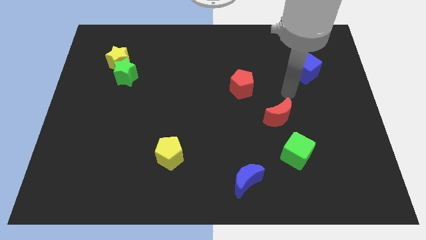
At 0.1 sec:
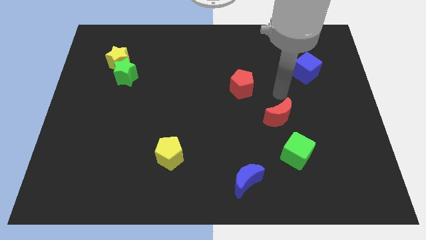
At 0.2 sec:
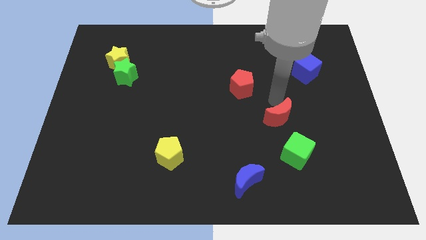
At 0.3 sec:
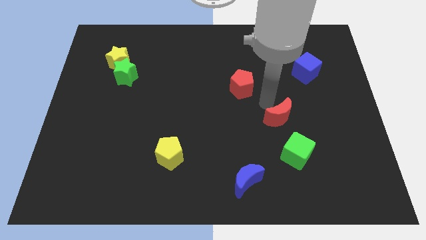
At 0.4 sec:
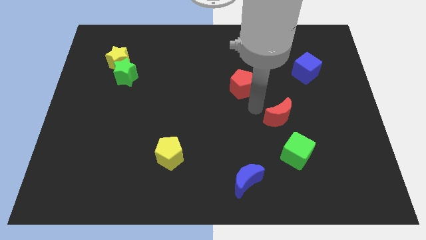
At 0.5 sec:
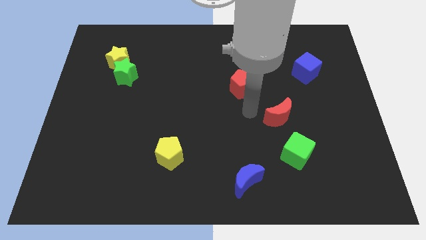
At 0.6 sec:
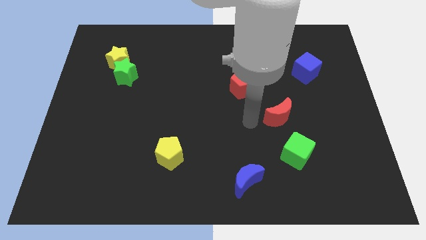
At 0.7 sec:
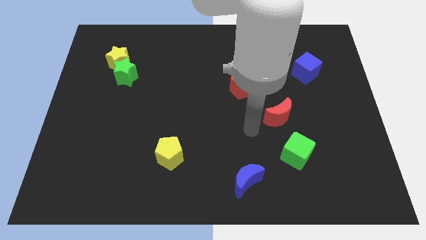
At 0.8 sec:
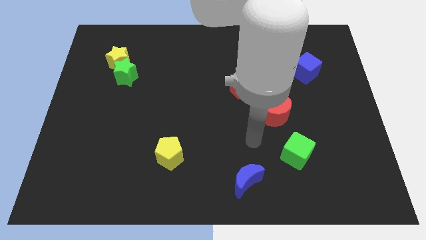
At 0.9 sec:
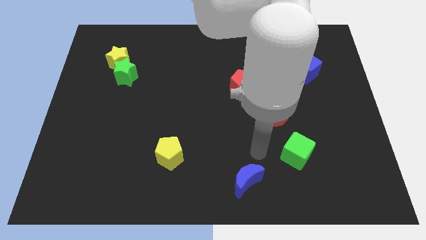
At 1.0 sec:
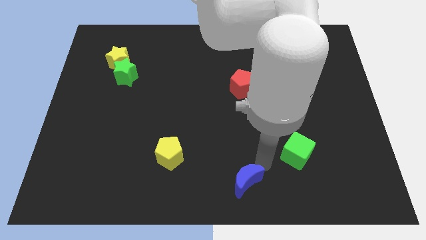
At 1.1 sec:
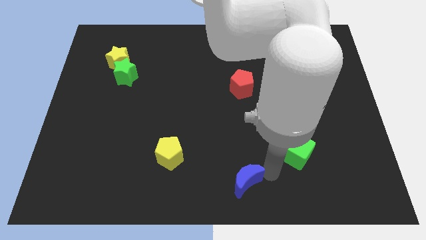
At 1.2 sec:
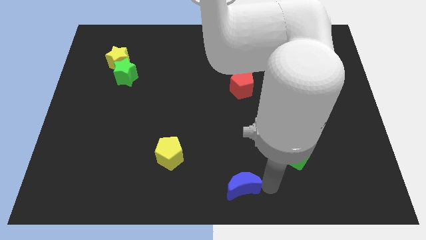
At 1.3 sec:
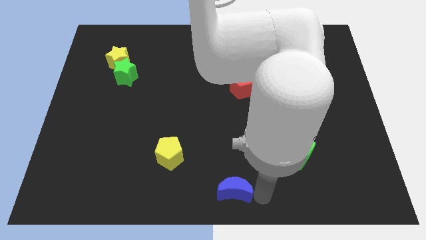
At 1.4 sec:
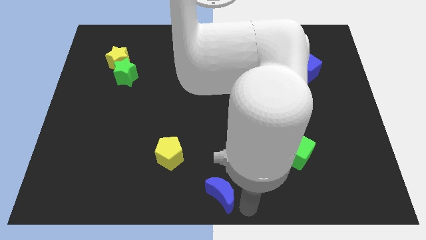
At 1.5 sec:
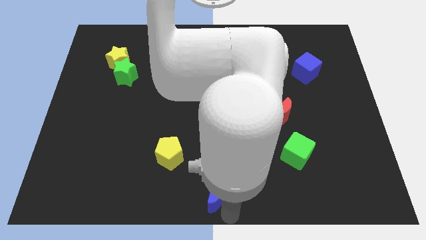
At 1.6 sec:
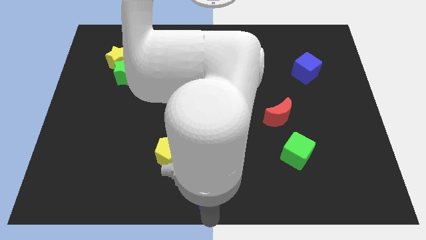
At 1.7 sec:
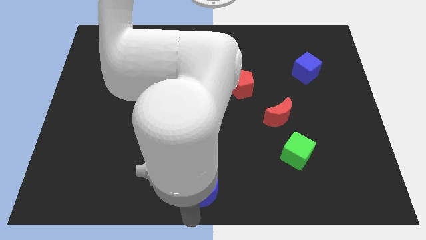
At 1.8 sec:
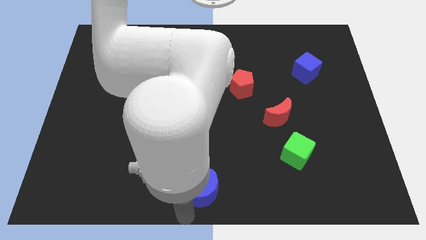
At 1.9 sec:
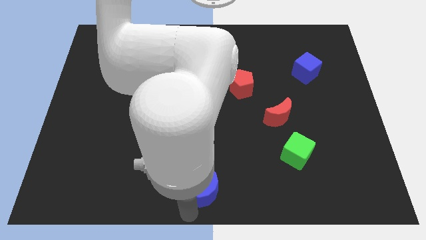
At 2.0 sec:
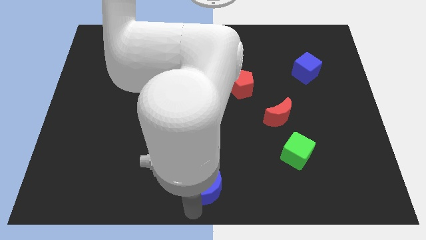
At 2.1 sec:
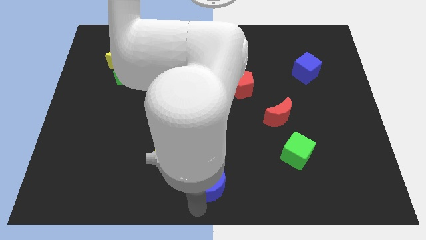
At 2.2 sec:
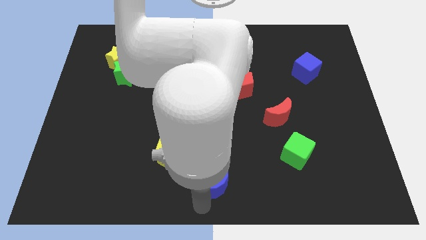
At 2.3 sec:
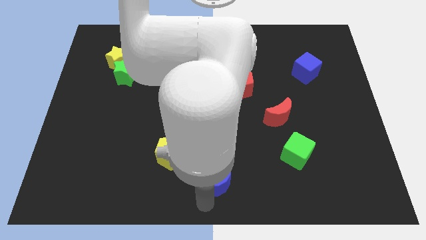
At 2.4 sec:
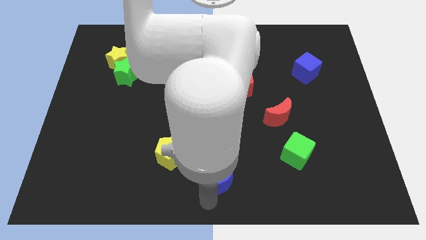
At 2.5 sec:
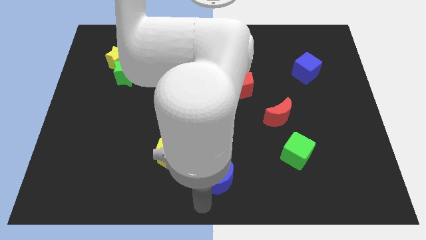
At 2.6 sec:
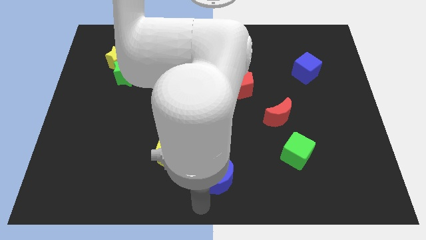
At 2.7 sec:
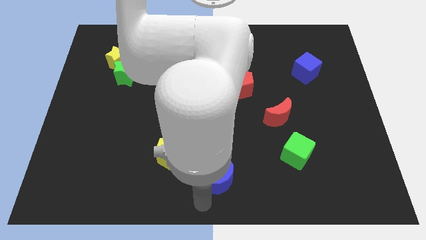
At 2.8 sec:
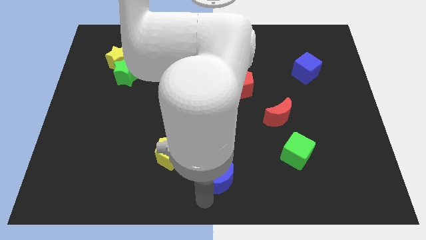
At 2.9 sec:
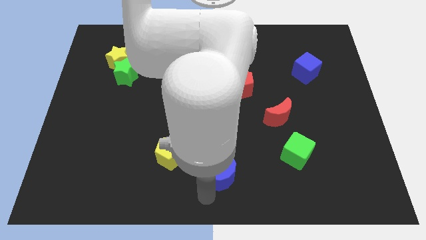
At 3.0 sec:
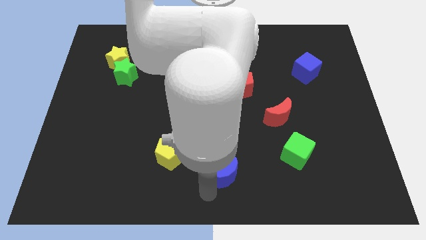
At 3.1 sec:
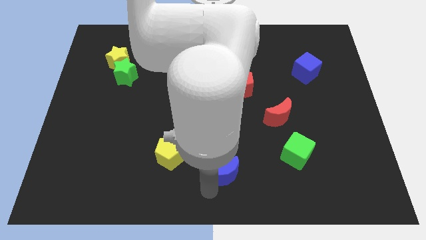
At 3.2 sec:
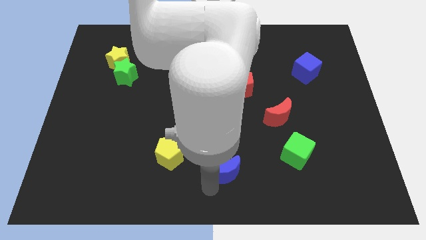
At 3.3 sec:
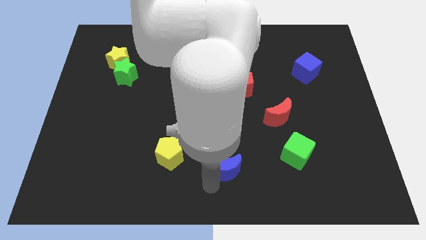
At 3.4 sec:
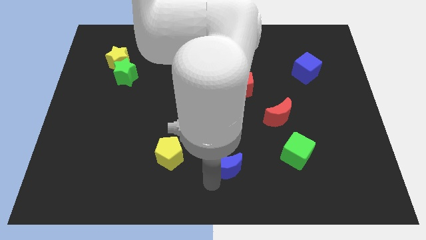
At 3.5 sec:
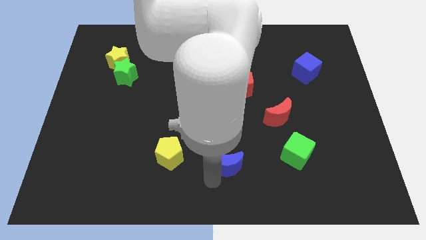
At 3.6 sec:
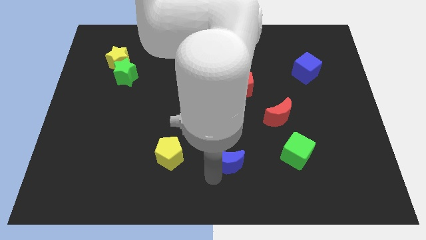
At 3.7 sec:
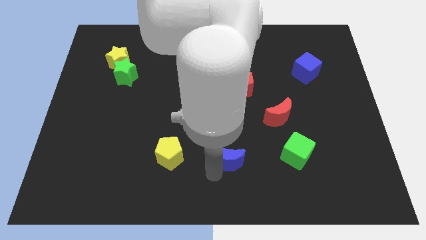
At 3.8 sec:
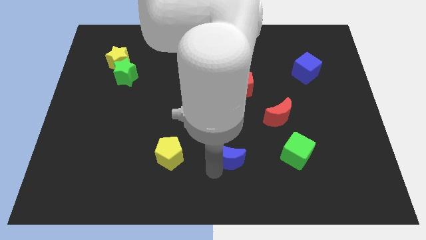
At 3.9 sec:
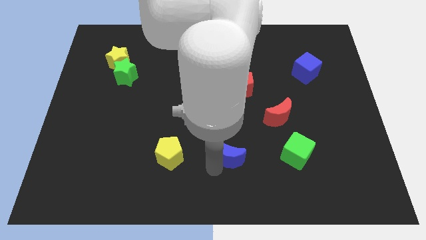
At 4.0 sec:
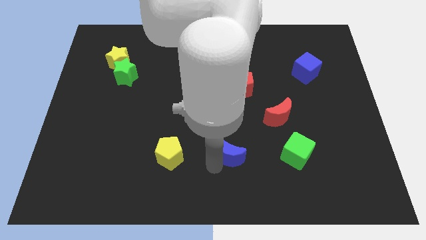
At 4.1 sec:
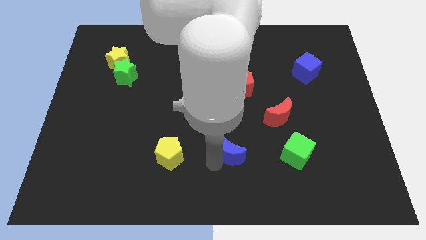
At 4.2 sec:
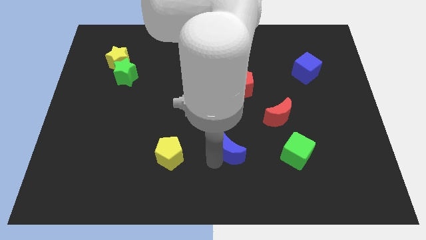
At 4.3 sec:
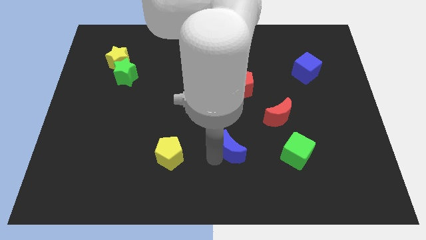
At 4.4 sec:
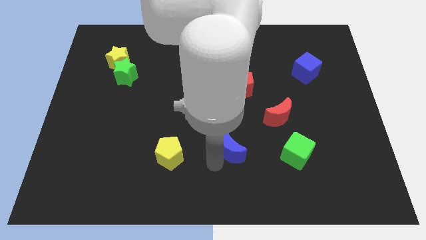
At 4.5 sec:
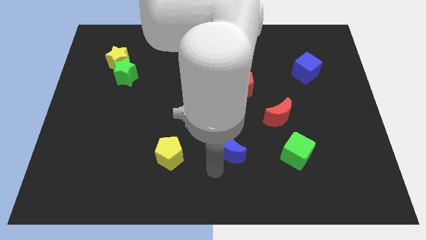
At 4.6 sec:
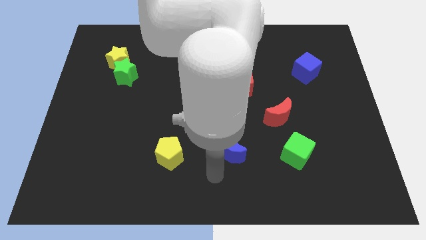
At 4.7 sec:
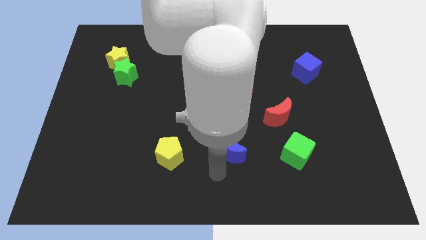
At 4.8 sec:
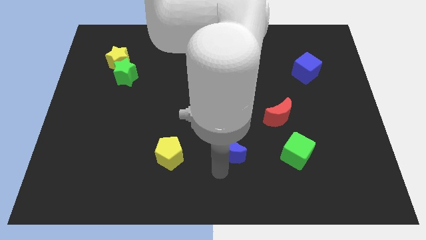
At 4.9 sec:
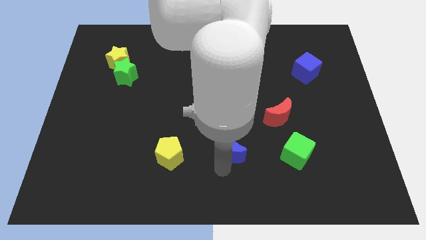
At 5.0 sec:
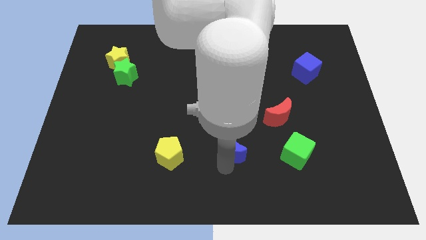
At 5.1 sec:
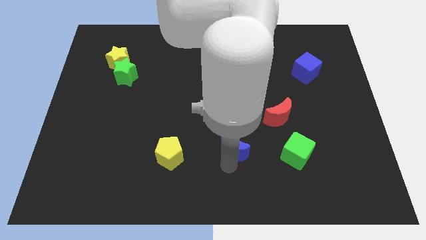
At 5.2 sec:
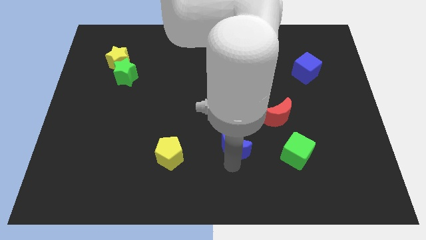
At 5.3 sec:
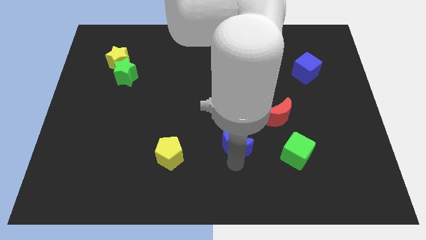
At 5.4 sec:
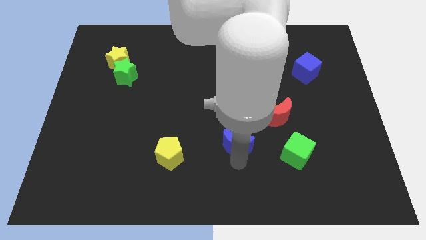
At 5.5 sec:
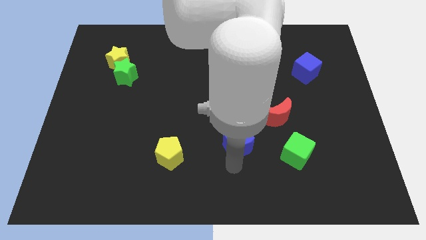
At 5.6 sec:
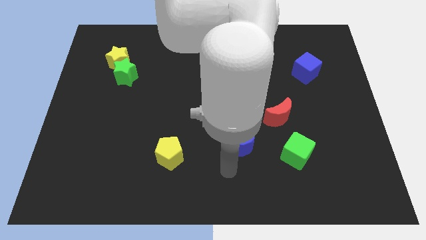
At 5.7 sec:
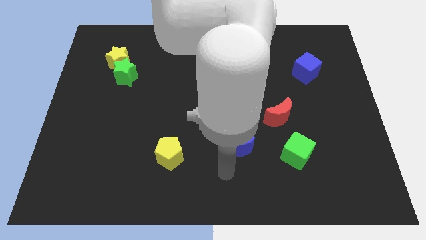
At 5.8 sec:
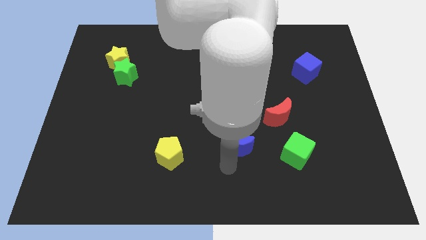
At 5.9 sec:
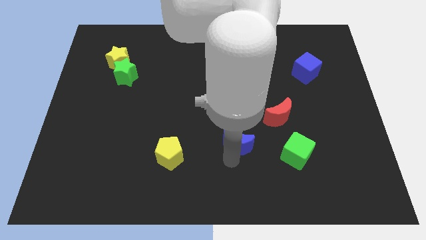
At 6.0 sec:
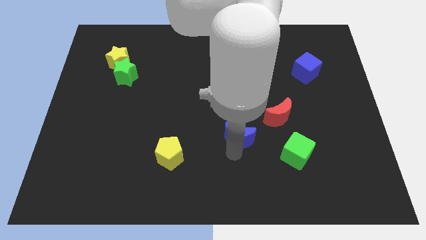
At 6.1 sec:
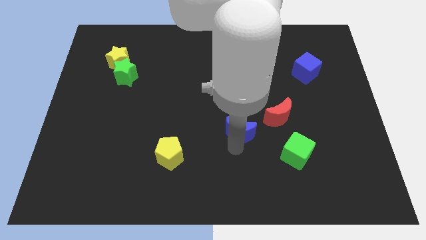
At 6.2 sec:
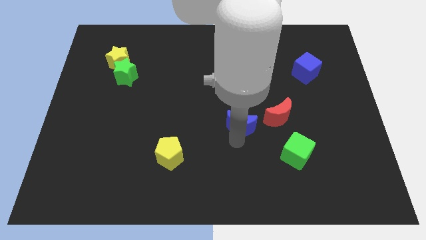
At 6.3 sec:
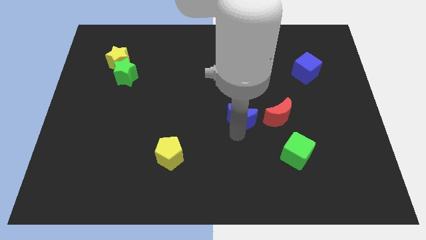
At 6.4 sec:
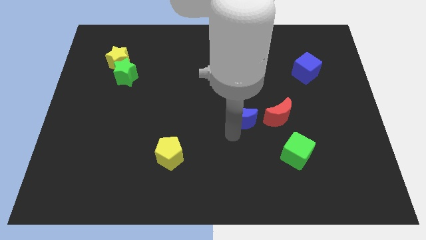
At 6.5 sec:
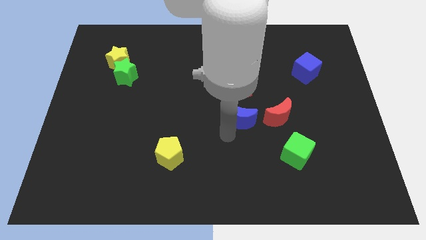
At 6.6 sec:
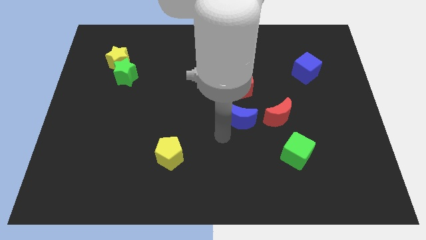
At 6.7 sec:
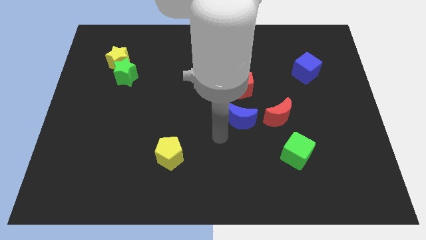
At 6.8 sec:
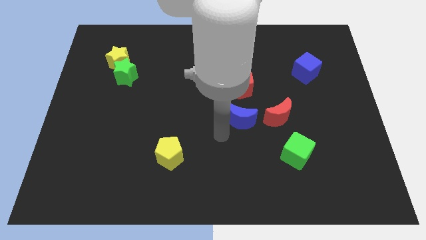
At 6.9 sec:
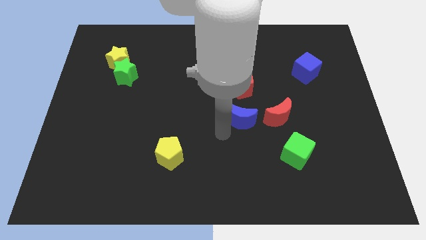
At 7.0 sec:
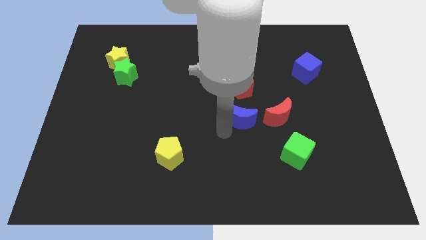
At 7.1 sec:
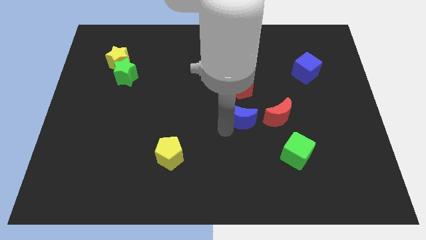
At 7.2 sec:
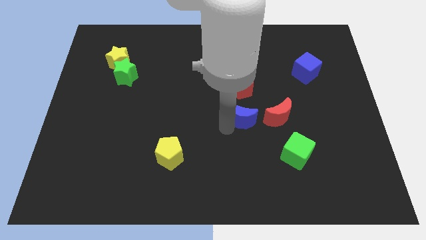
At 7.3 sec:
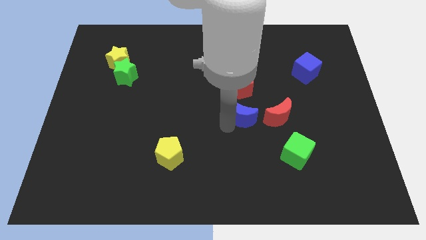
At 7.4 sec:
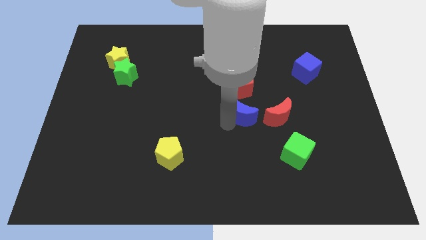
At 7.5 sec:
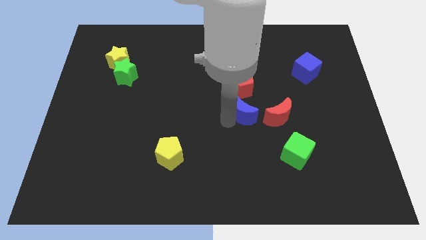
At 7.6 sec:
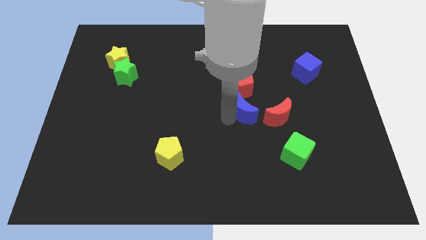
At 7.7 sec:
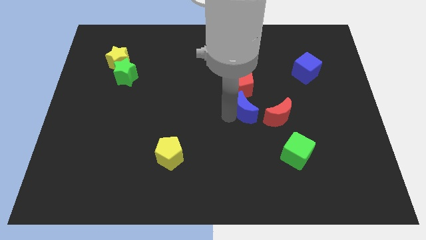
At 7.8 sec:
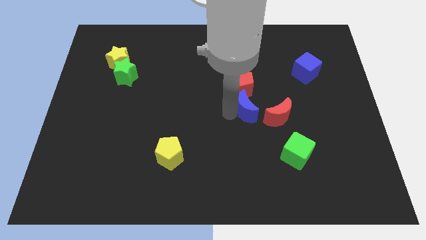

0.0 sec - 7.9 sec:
put the blue moon to the bottom right of the red pentagon
